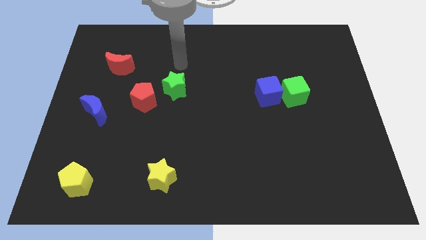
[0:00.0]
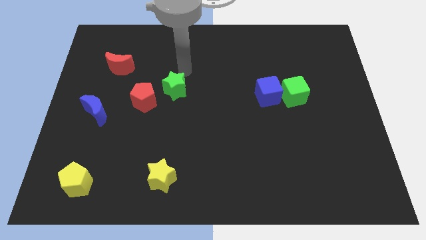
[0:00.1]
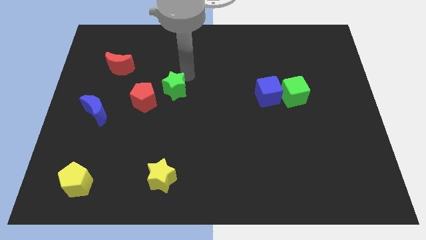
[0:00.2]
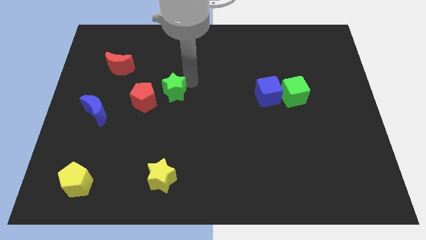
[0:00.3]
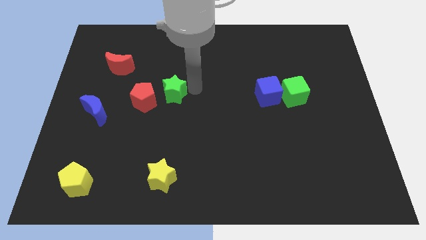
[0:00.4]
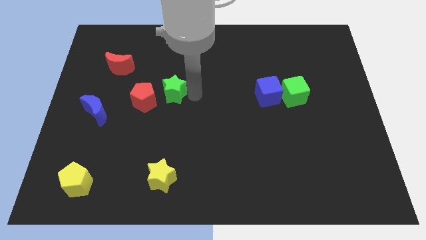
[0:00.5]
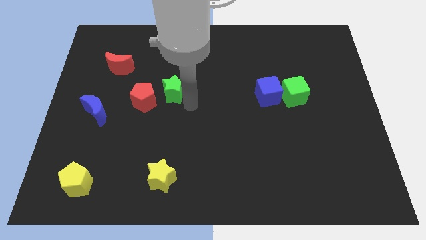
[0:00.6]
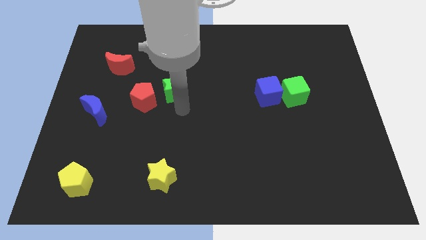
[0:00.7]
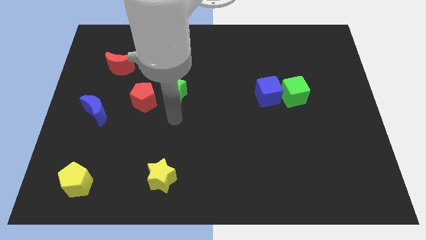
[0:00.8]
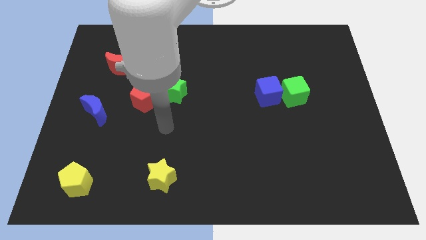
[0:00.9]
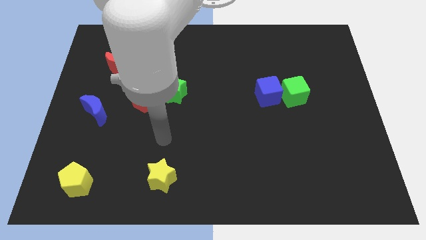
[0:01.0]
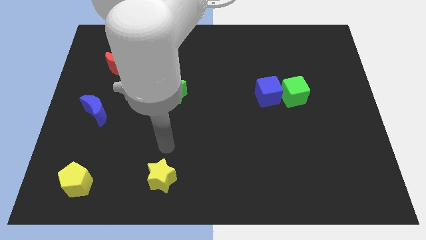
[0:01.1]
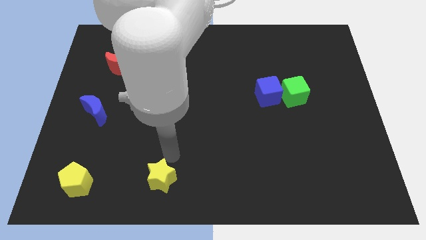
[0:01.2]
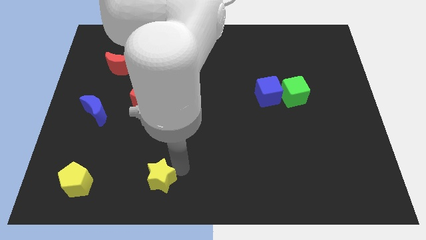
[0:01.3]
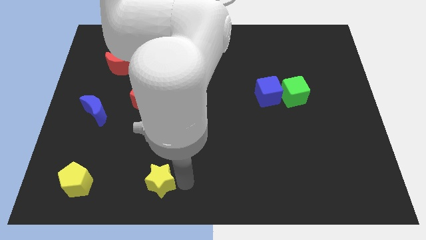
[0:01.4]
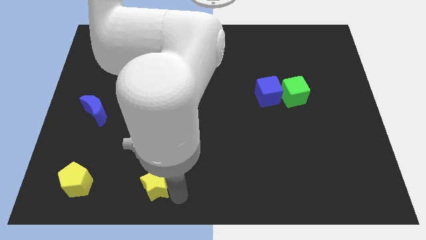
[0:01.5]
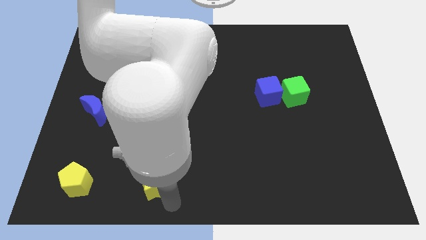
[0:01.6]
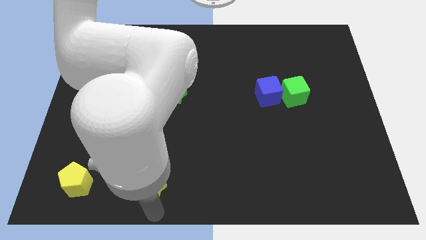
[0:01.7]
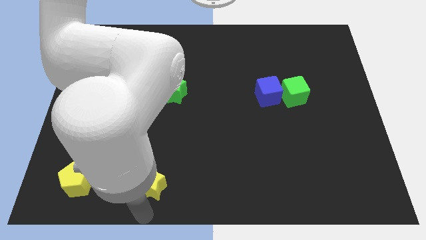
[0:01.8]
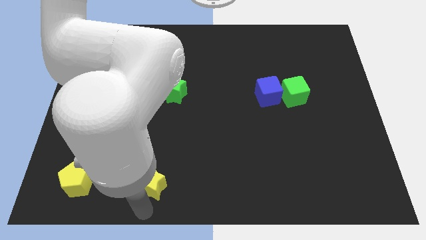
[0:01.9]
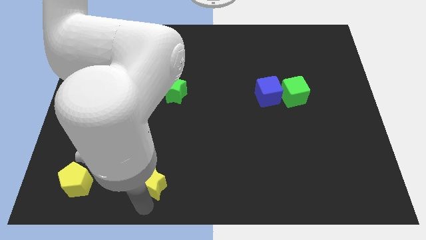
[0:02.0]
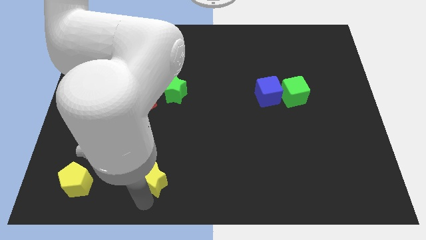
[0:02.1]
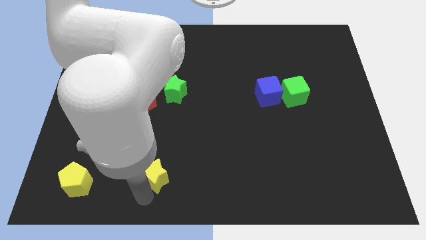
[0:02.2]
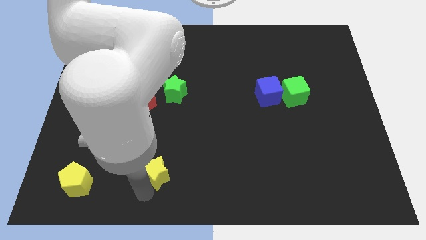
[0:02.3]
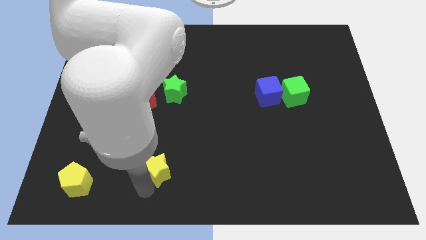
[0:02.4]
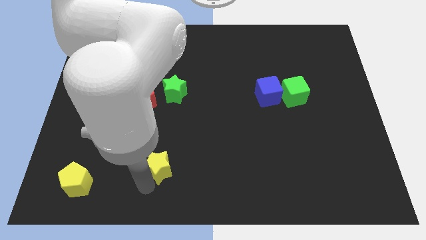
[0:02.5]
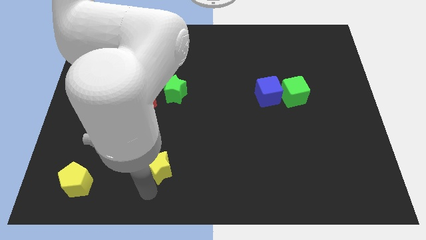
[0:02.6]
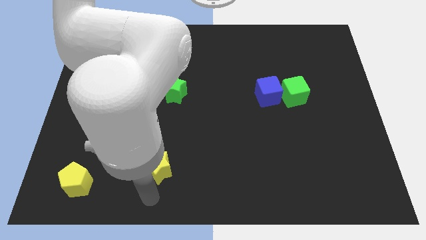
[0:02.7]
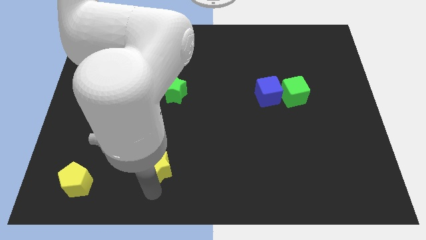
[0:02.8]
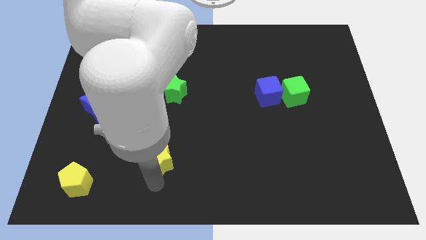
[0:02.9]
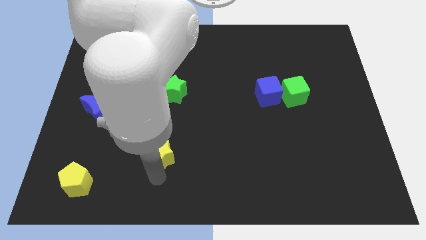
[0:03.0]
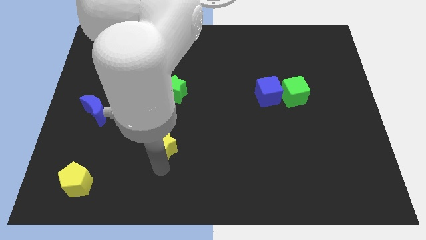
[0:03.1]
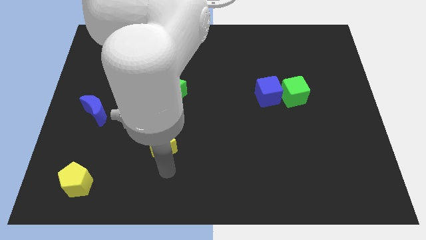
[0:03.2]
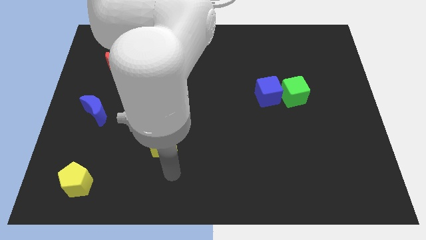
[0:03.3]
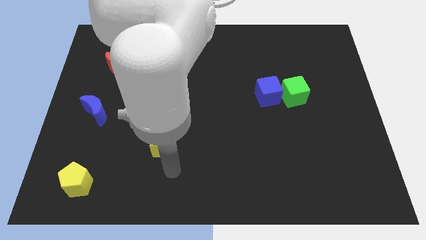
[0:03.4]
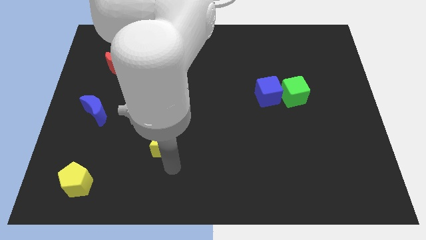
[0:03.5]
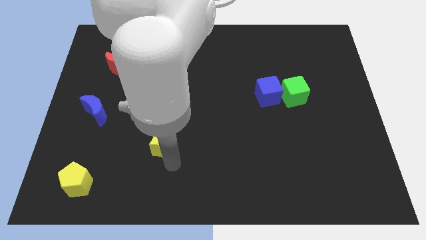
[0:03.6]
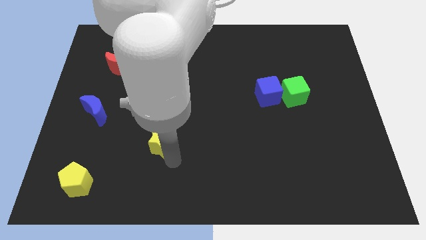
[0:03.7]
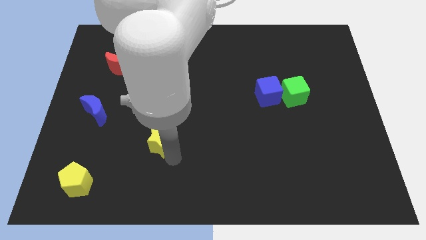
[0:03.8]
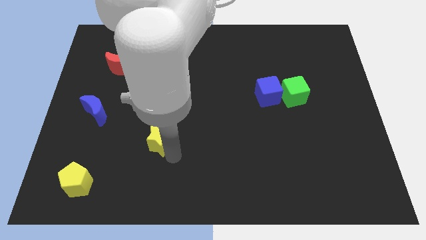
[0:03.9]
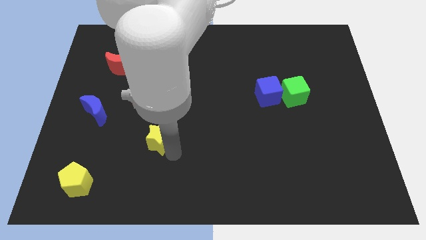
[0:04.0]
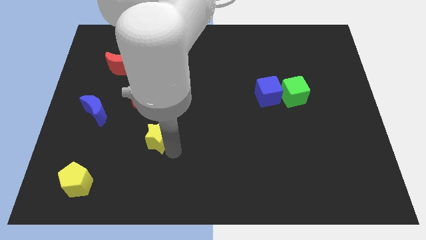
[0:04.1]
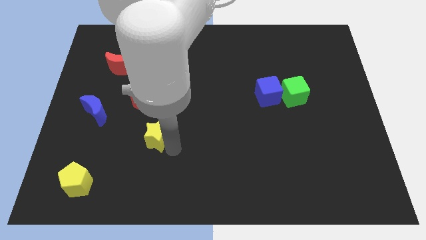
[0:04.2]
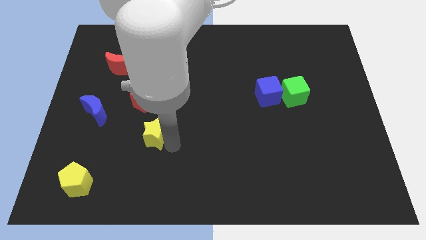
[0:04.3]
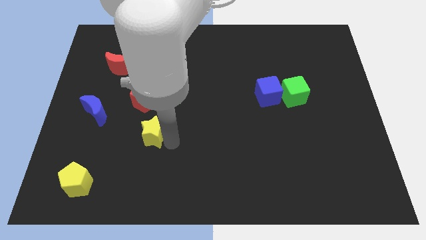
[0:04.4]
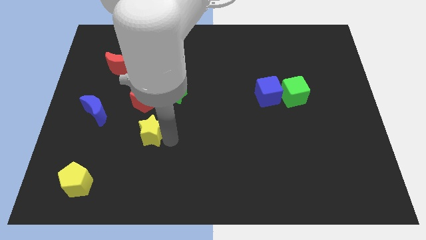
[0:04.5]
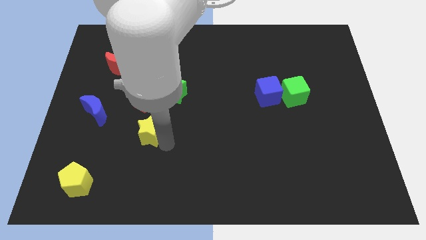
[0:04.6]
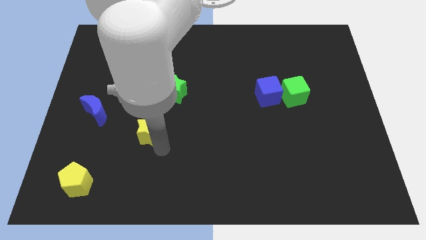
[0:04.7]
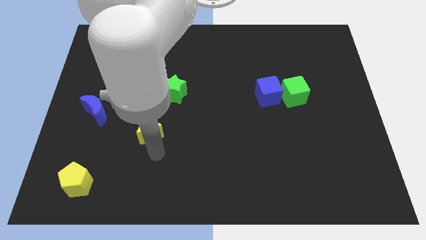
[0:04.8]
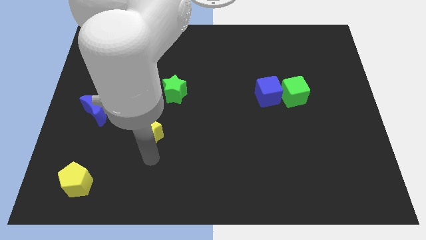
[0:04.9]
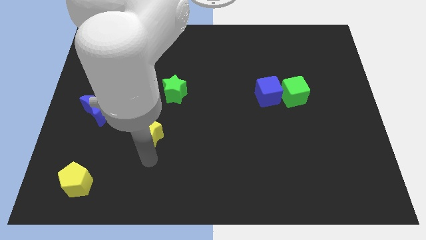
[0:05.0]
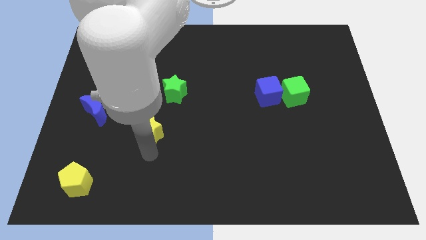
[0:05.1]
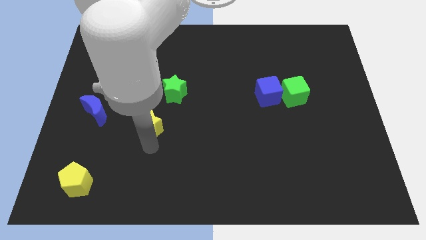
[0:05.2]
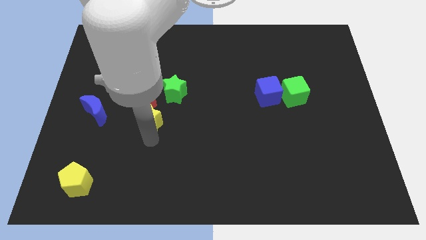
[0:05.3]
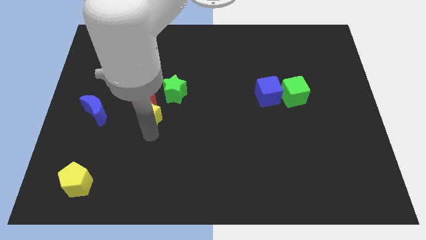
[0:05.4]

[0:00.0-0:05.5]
move the yellow star to the red pentagon

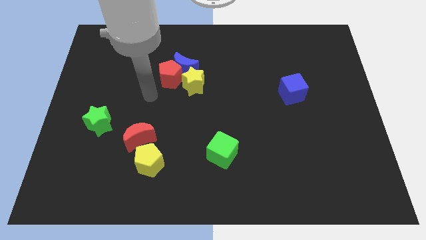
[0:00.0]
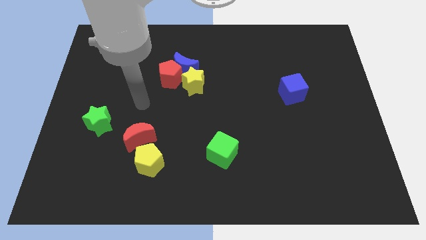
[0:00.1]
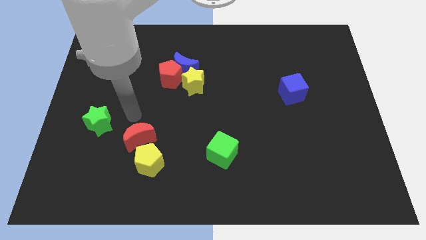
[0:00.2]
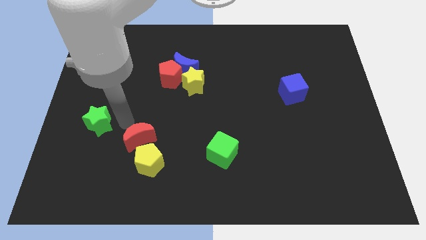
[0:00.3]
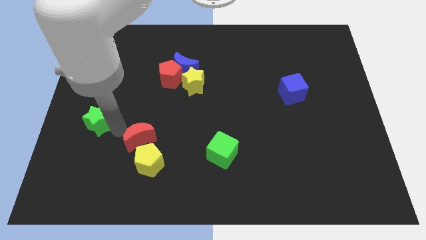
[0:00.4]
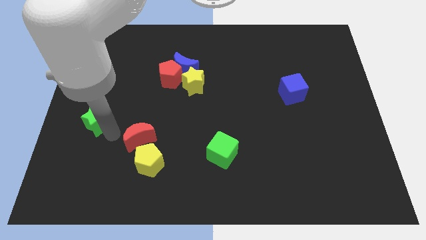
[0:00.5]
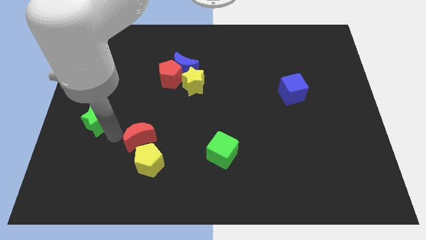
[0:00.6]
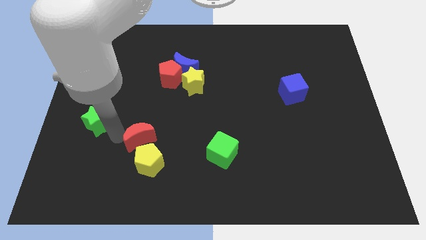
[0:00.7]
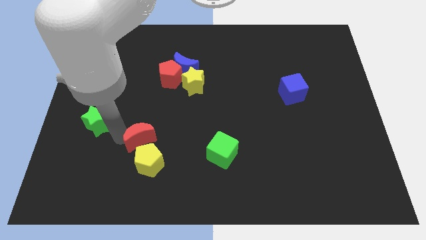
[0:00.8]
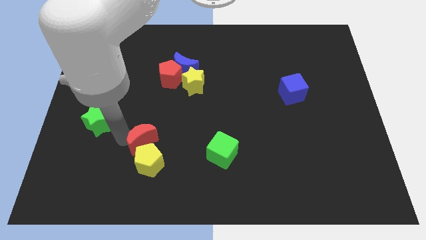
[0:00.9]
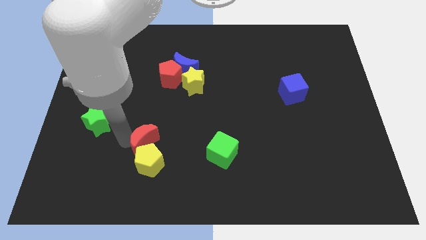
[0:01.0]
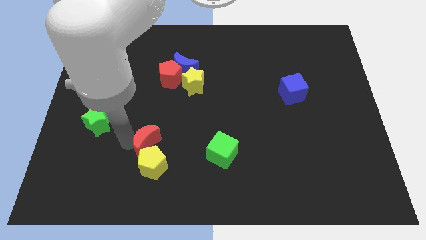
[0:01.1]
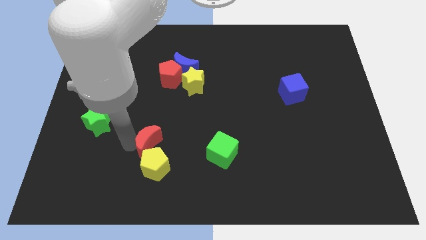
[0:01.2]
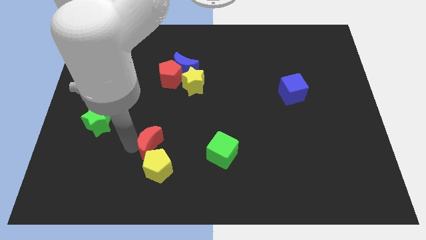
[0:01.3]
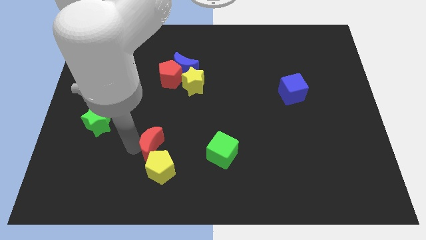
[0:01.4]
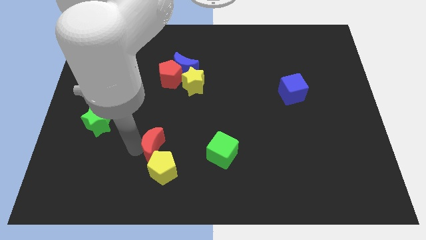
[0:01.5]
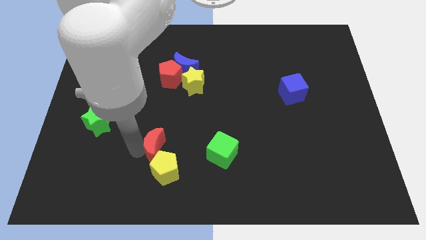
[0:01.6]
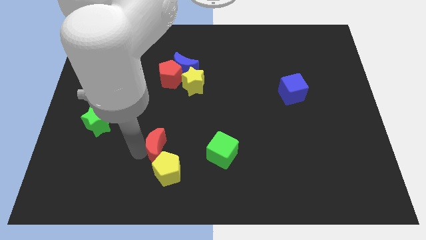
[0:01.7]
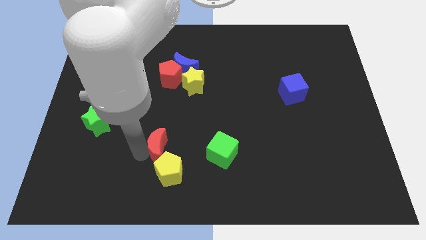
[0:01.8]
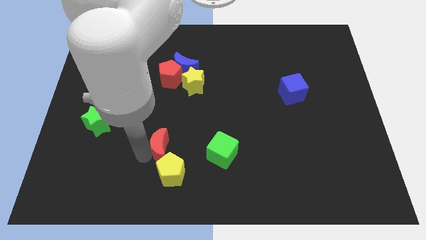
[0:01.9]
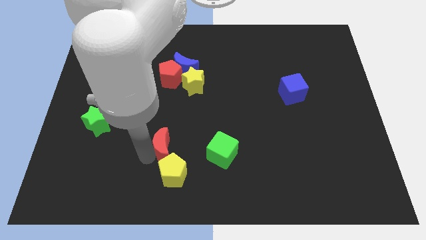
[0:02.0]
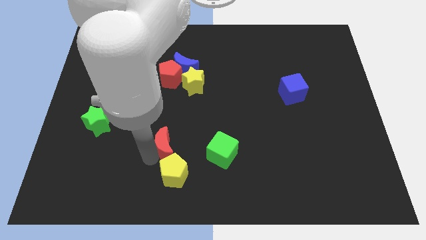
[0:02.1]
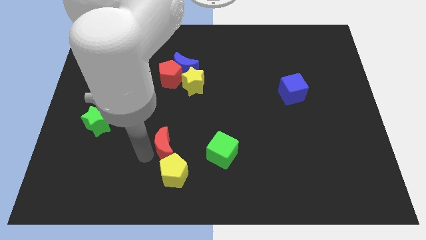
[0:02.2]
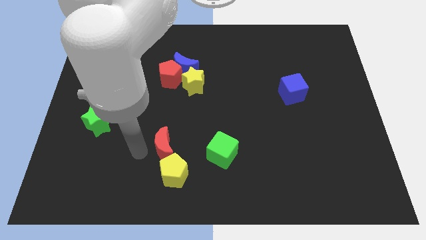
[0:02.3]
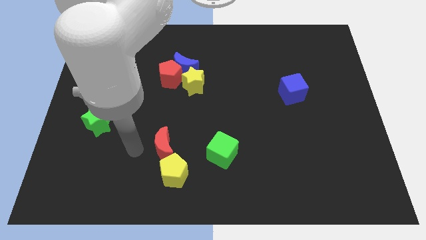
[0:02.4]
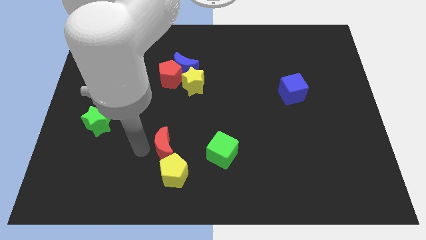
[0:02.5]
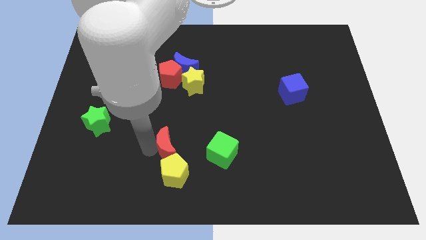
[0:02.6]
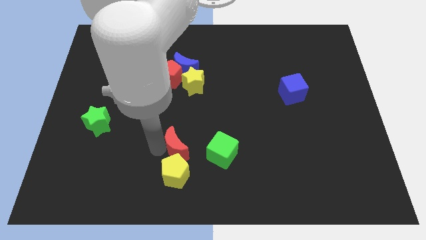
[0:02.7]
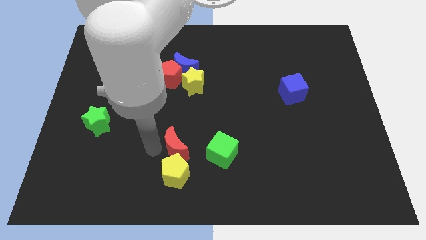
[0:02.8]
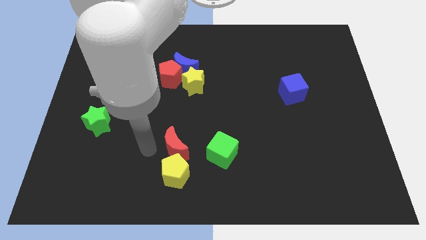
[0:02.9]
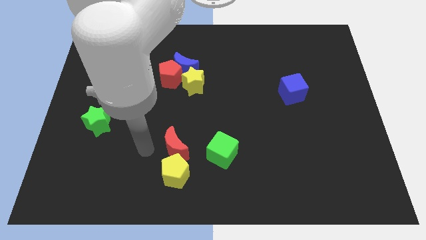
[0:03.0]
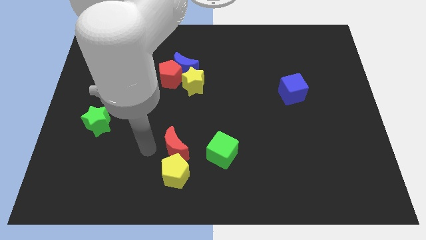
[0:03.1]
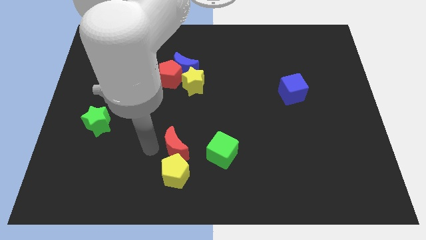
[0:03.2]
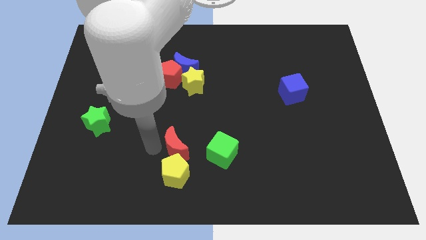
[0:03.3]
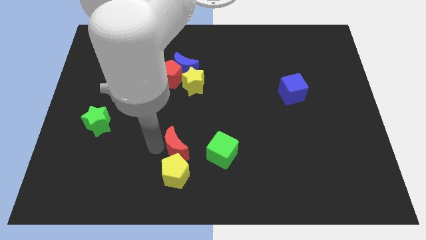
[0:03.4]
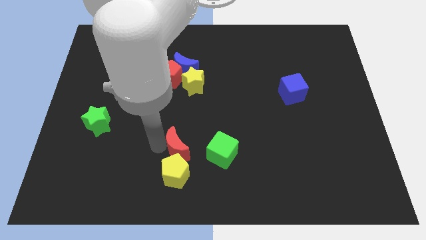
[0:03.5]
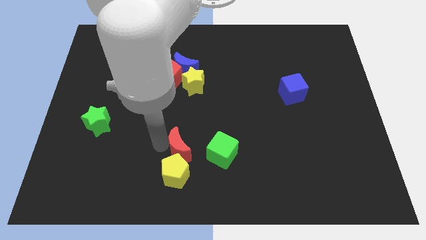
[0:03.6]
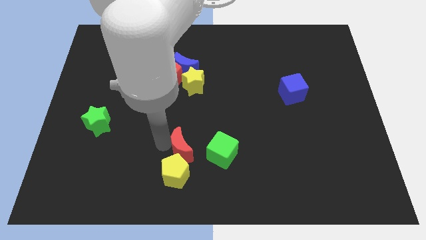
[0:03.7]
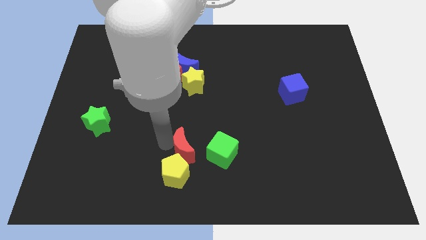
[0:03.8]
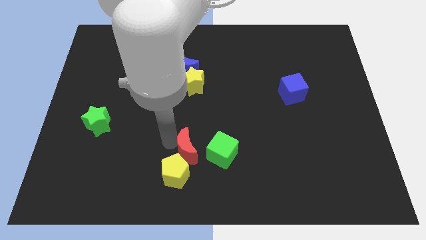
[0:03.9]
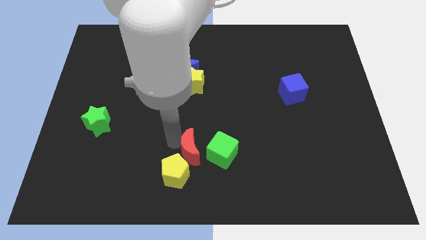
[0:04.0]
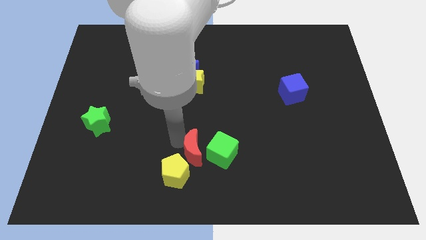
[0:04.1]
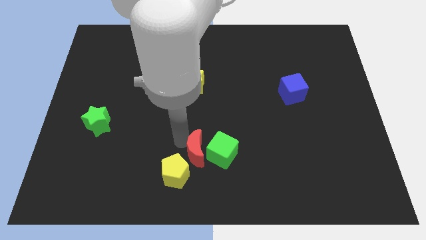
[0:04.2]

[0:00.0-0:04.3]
push the red moon close to the green cube
